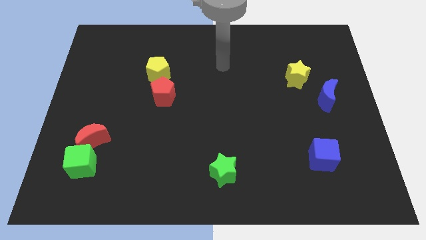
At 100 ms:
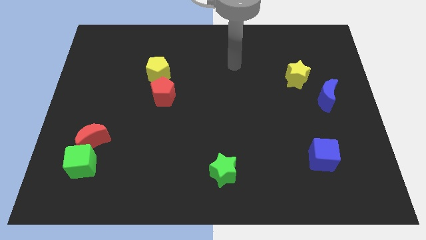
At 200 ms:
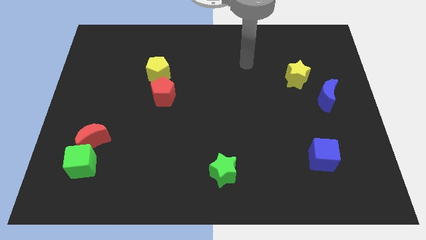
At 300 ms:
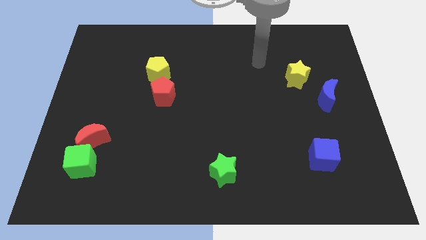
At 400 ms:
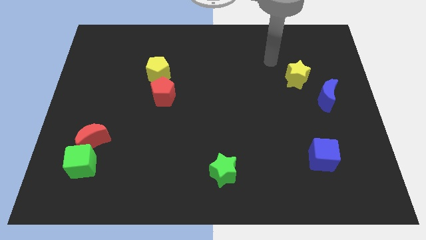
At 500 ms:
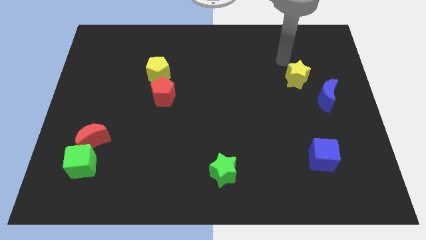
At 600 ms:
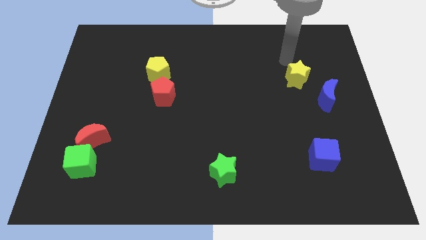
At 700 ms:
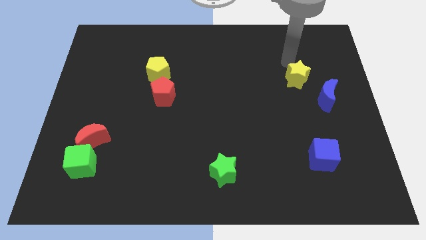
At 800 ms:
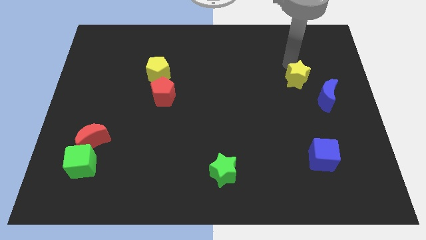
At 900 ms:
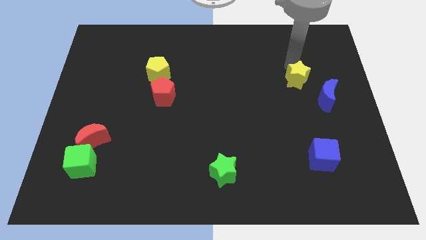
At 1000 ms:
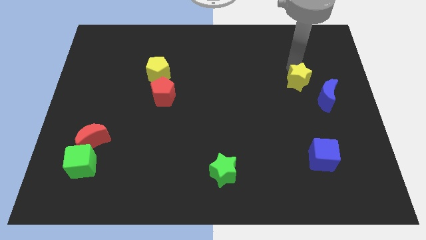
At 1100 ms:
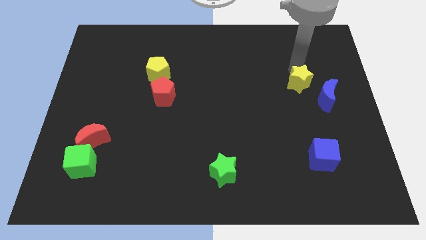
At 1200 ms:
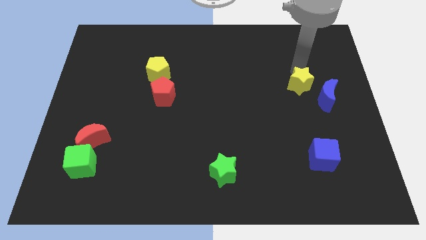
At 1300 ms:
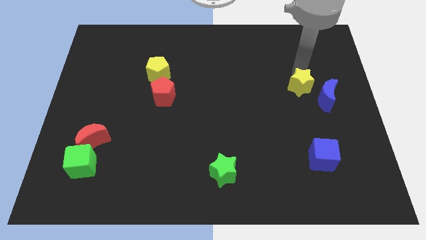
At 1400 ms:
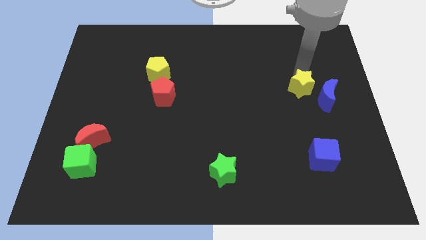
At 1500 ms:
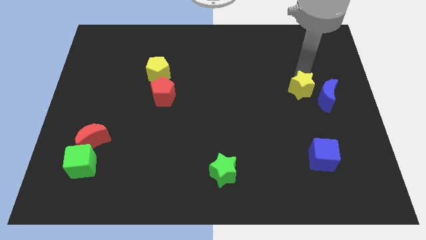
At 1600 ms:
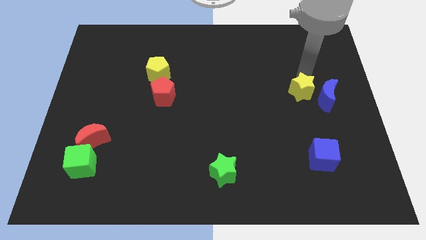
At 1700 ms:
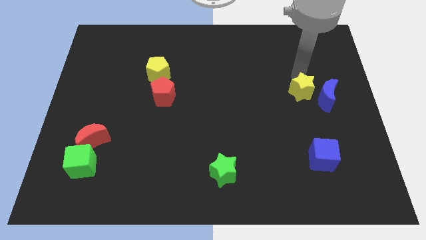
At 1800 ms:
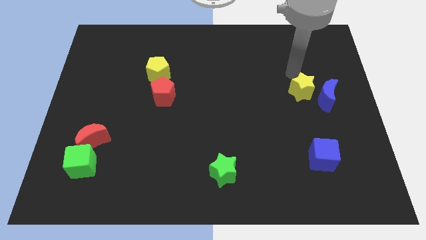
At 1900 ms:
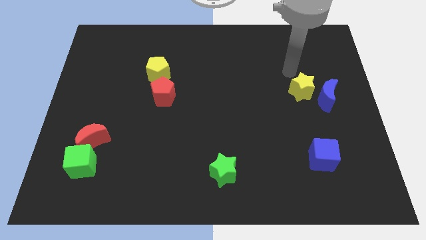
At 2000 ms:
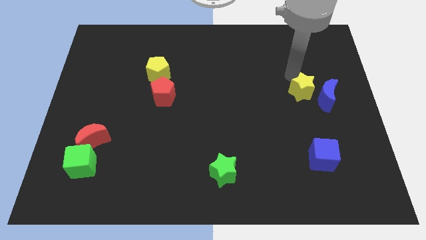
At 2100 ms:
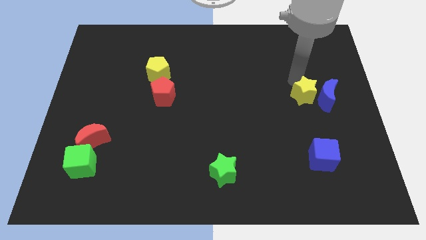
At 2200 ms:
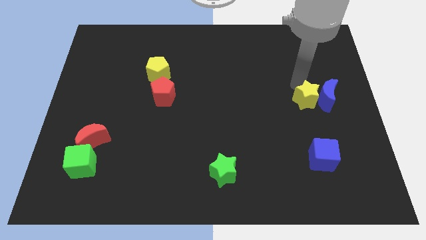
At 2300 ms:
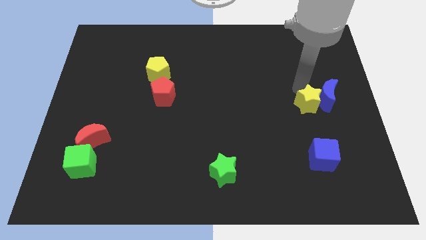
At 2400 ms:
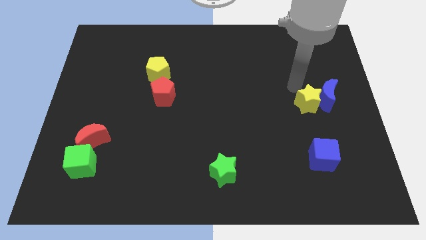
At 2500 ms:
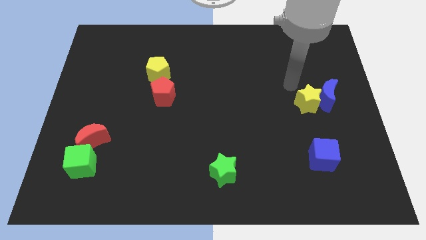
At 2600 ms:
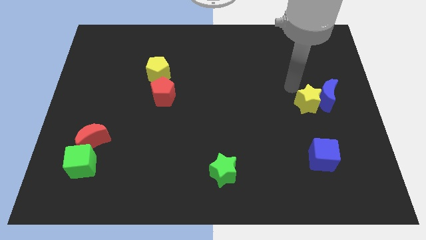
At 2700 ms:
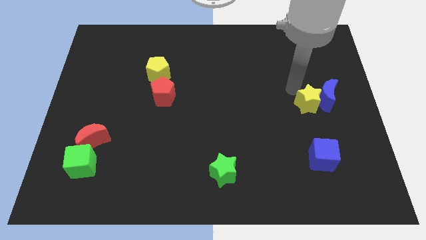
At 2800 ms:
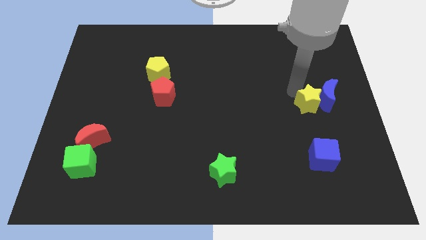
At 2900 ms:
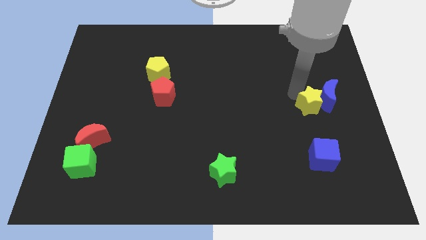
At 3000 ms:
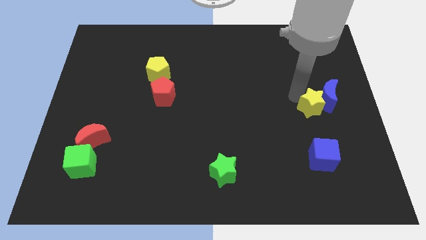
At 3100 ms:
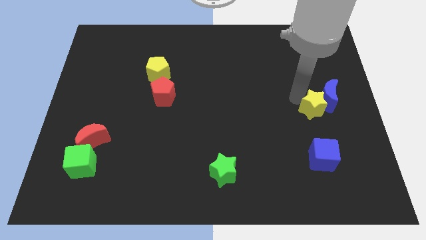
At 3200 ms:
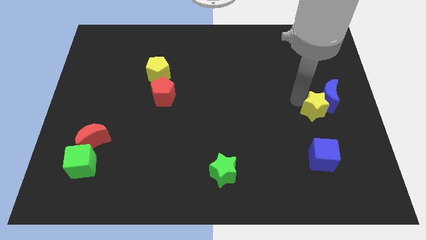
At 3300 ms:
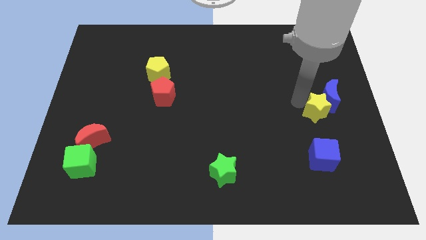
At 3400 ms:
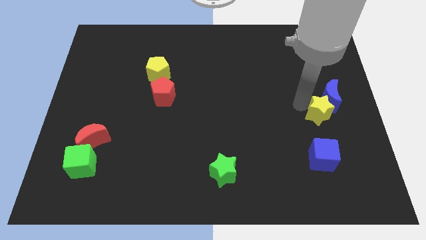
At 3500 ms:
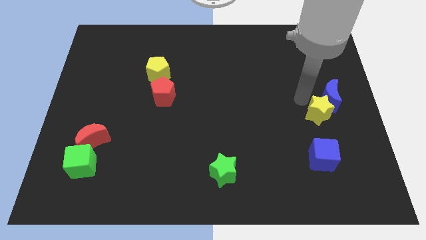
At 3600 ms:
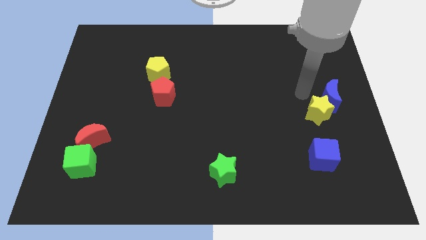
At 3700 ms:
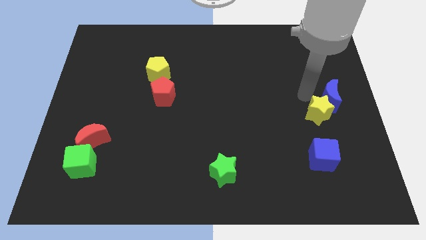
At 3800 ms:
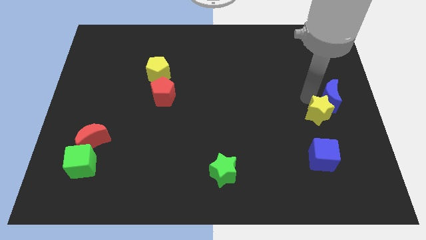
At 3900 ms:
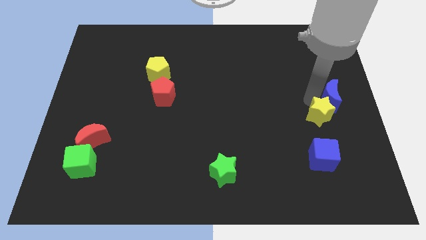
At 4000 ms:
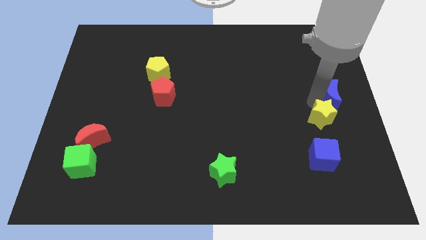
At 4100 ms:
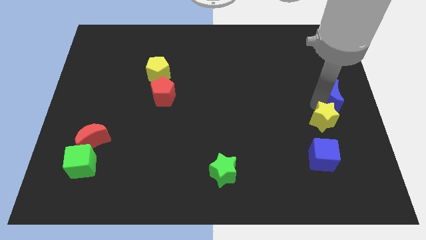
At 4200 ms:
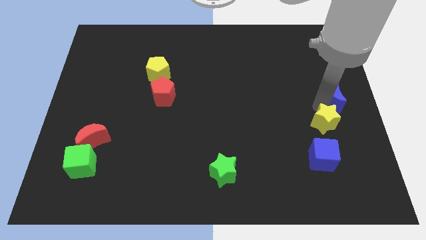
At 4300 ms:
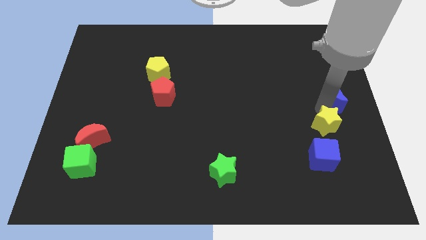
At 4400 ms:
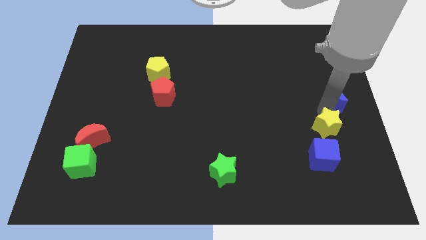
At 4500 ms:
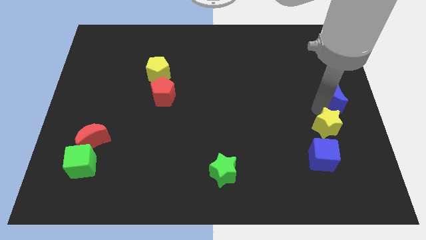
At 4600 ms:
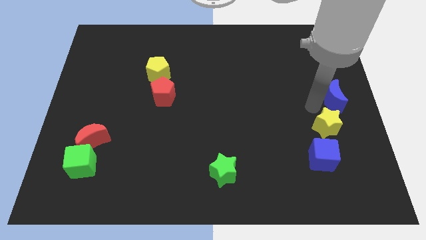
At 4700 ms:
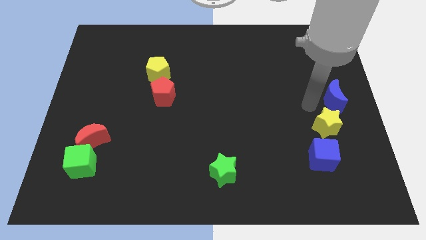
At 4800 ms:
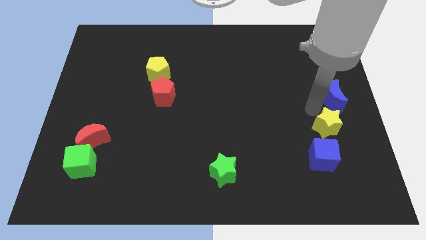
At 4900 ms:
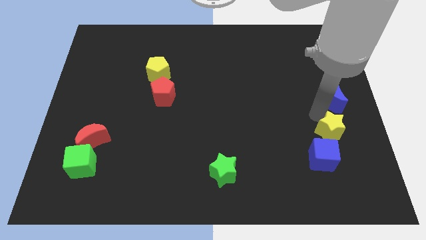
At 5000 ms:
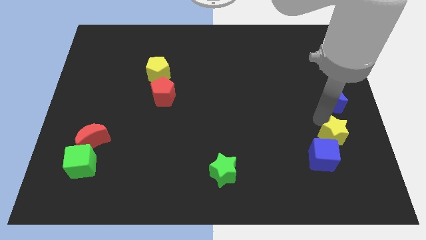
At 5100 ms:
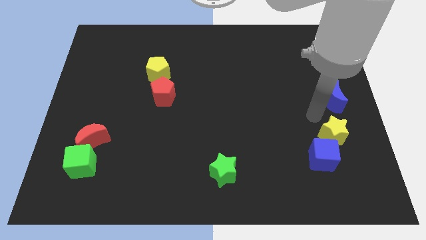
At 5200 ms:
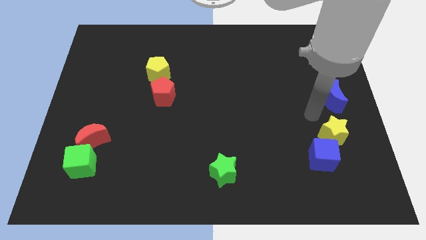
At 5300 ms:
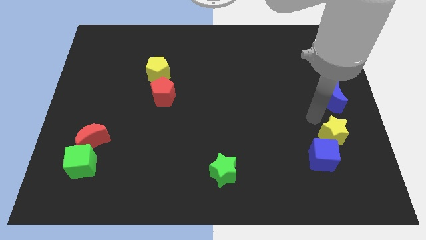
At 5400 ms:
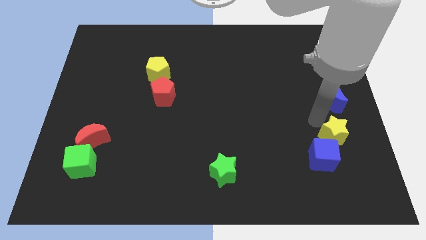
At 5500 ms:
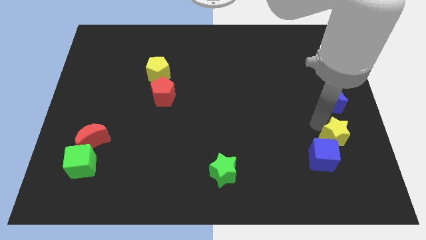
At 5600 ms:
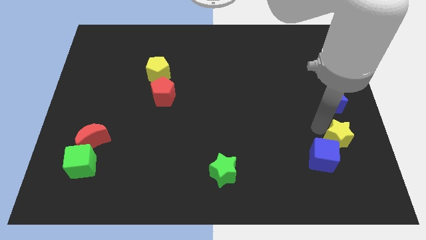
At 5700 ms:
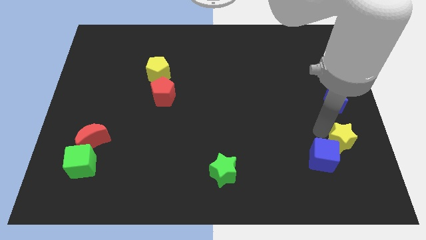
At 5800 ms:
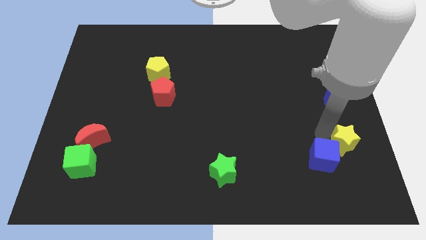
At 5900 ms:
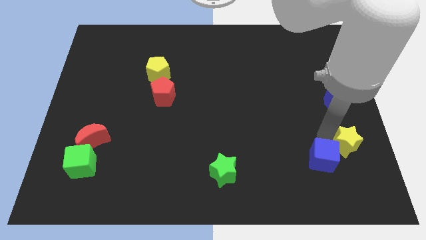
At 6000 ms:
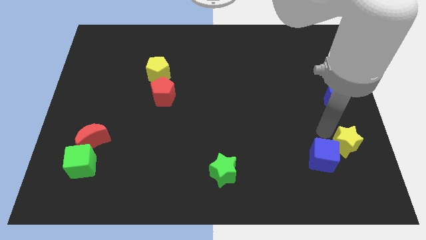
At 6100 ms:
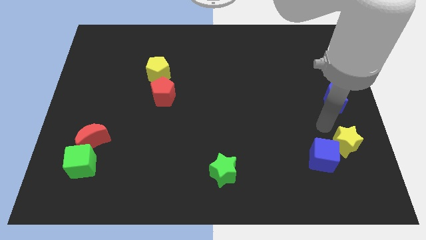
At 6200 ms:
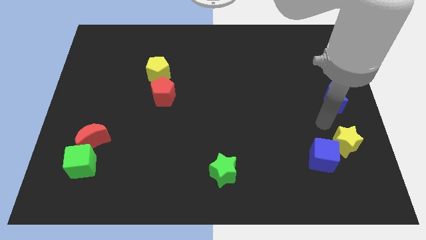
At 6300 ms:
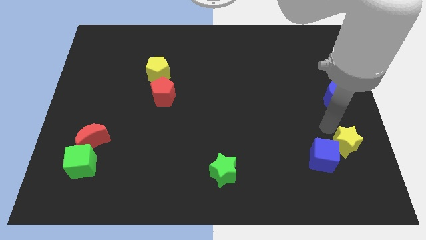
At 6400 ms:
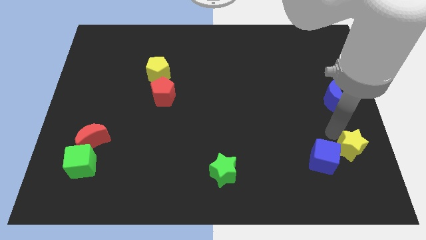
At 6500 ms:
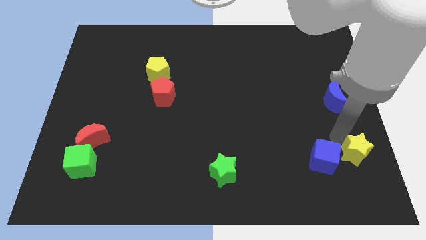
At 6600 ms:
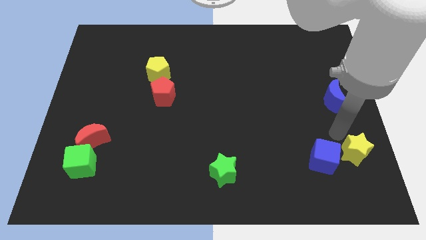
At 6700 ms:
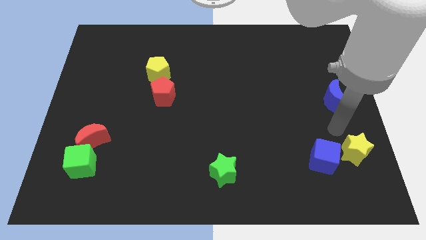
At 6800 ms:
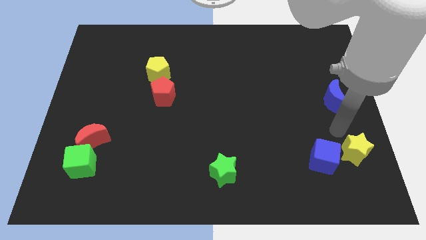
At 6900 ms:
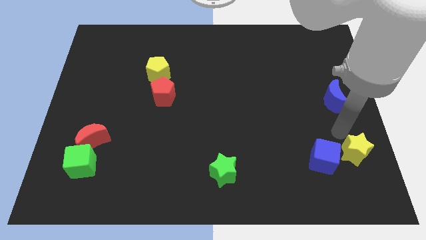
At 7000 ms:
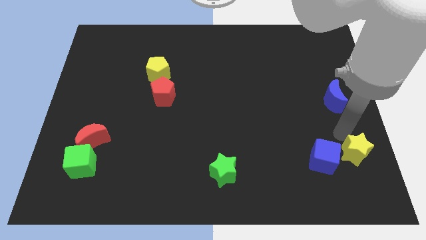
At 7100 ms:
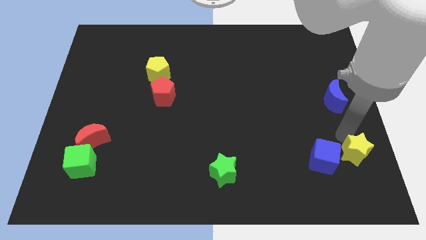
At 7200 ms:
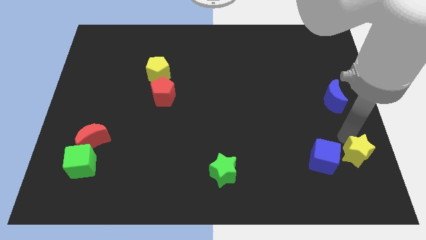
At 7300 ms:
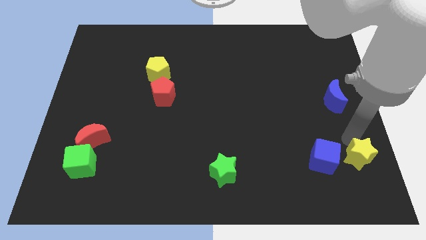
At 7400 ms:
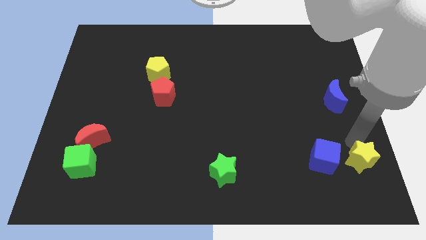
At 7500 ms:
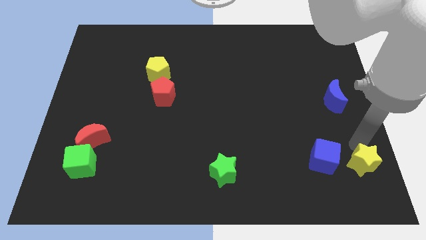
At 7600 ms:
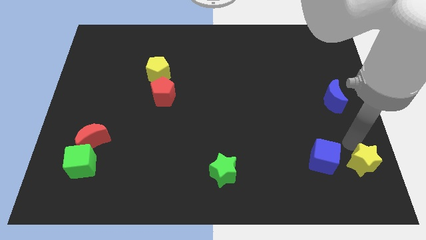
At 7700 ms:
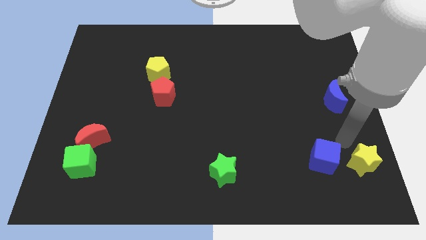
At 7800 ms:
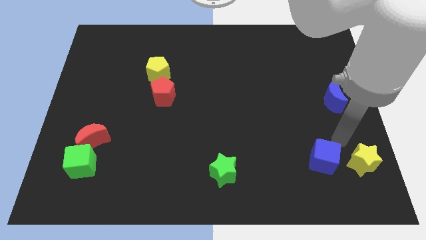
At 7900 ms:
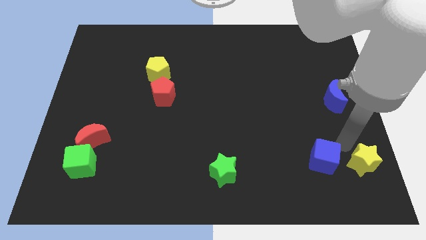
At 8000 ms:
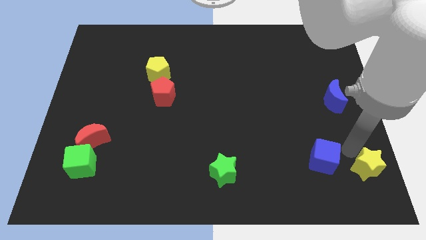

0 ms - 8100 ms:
move the yellow star to the lower right corner
